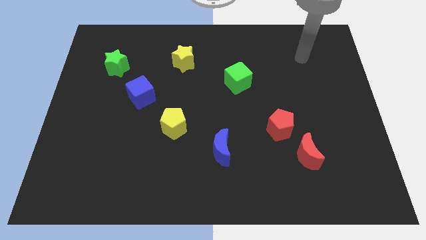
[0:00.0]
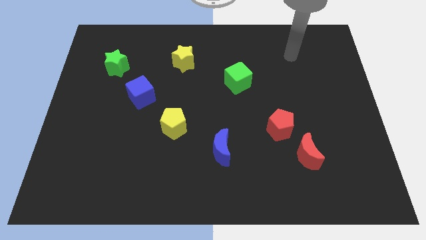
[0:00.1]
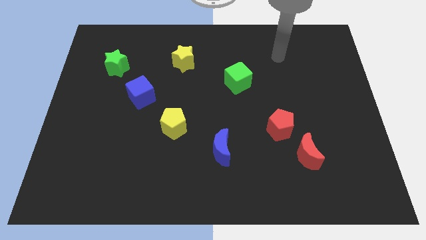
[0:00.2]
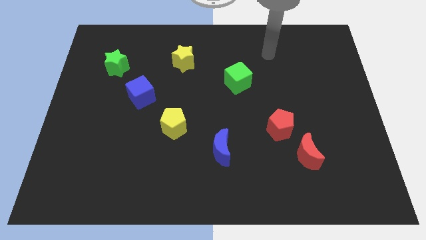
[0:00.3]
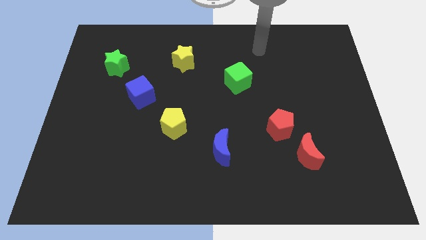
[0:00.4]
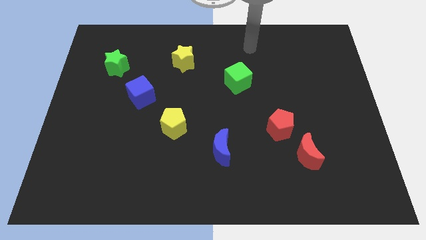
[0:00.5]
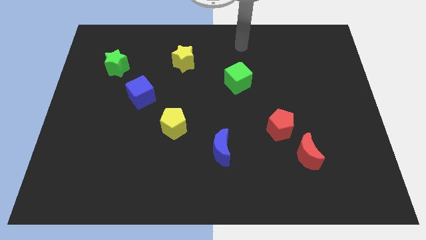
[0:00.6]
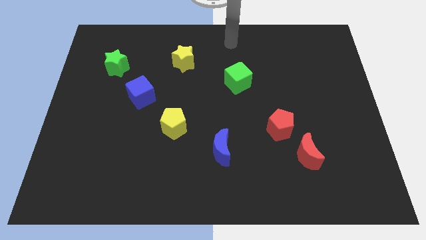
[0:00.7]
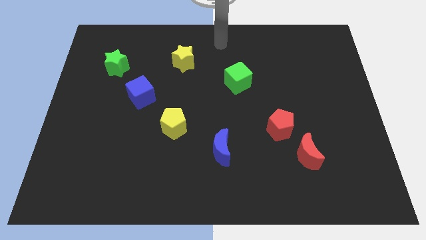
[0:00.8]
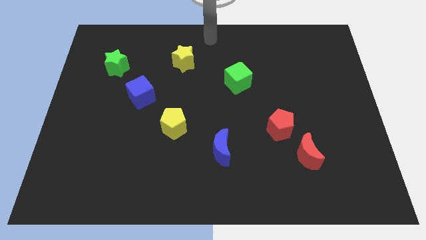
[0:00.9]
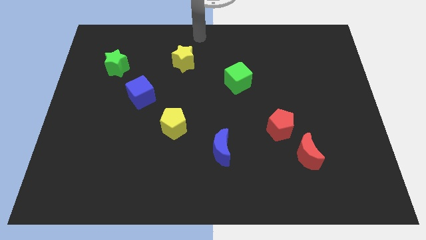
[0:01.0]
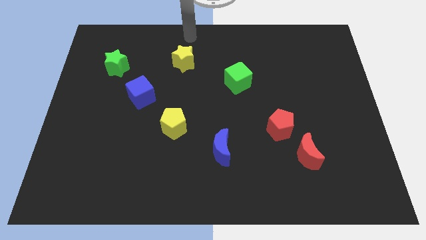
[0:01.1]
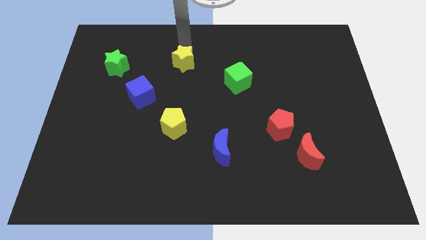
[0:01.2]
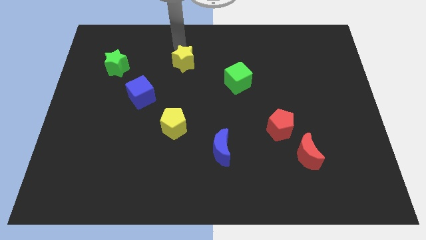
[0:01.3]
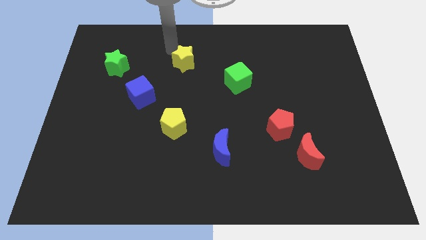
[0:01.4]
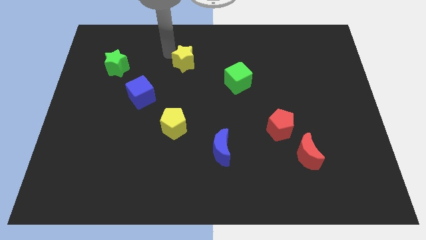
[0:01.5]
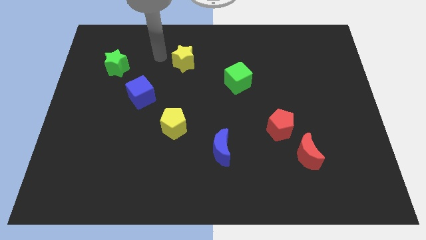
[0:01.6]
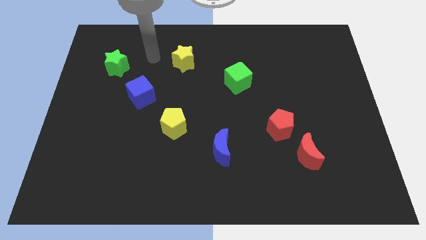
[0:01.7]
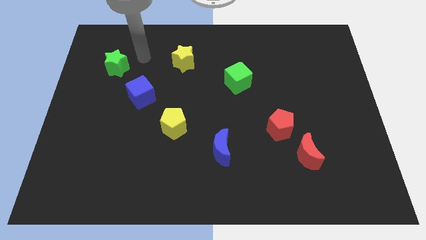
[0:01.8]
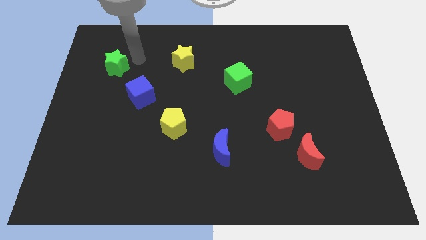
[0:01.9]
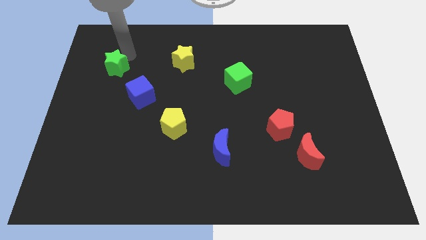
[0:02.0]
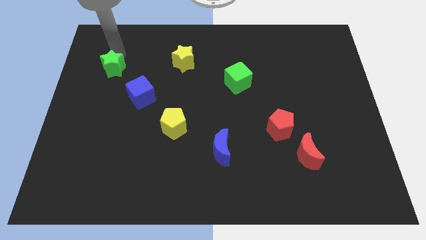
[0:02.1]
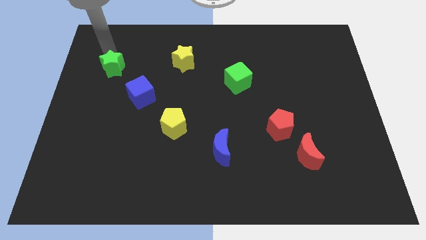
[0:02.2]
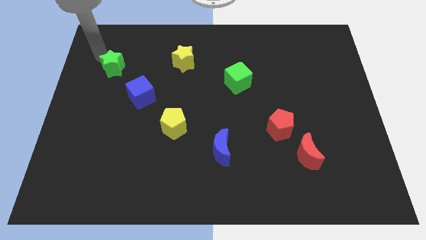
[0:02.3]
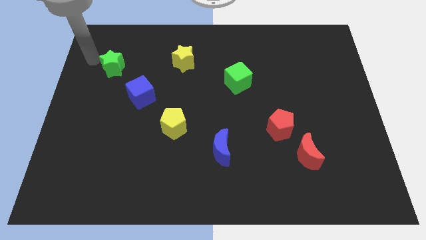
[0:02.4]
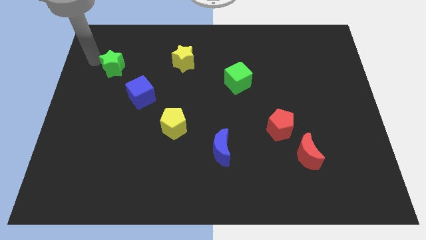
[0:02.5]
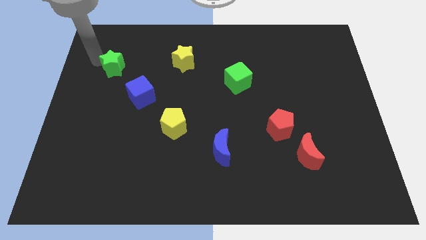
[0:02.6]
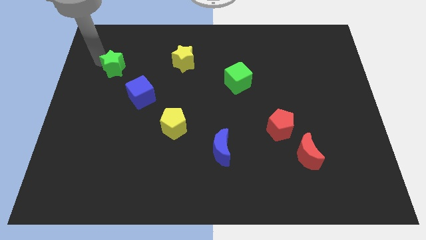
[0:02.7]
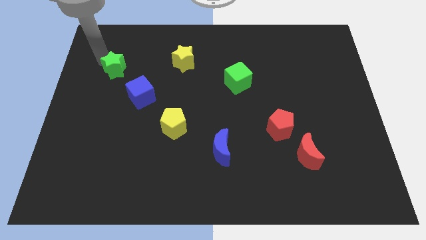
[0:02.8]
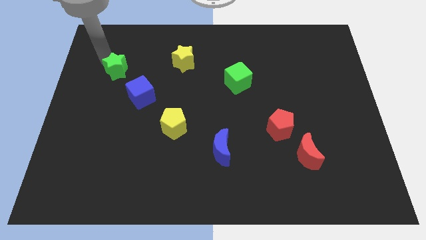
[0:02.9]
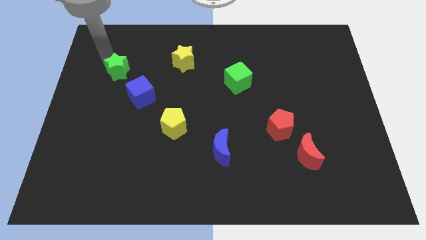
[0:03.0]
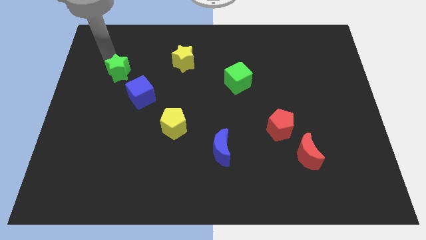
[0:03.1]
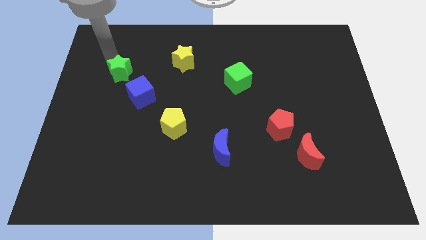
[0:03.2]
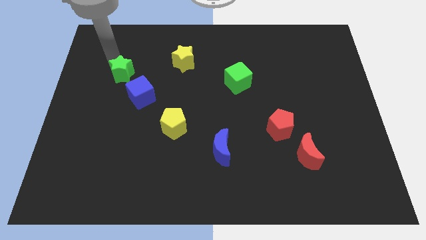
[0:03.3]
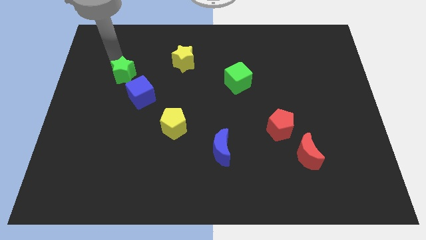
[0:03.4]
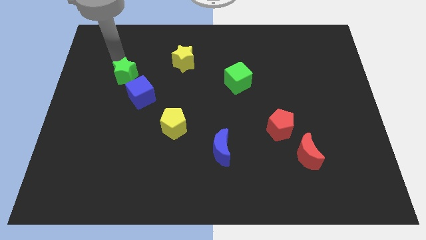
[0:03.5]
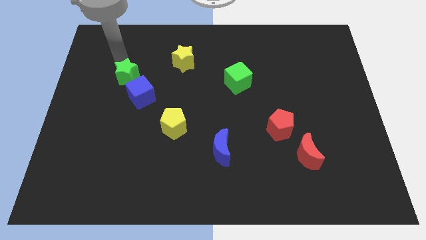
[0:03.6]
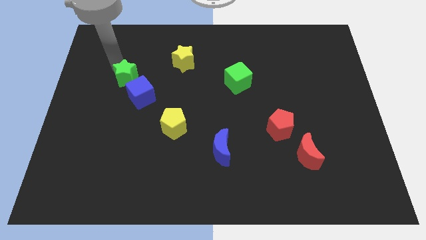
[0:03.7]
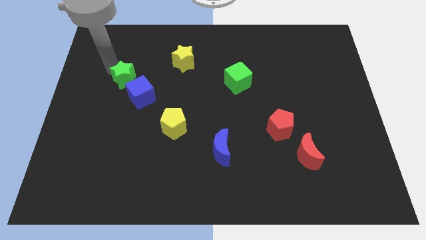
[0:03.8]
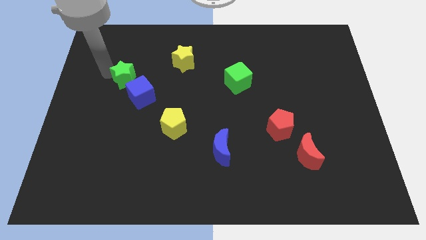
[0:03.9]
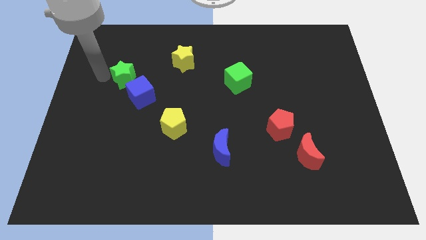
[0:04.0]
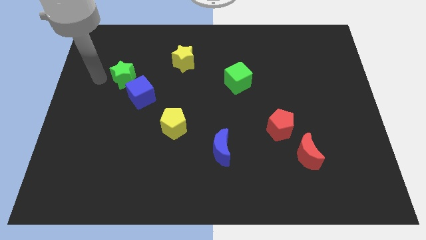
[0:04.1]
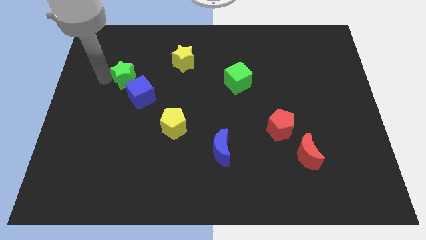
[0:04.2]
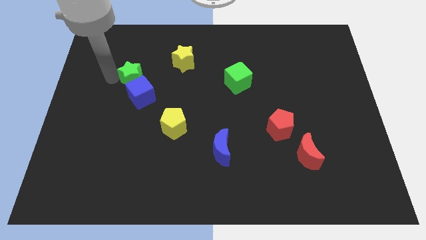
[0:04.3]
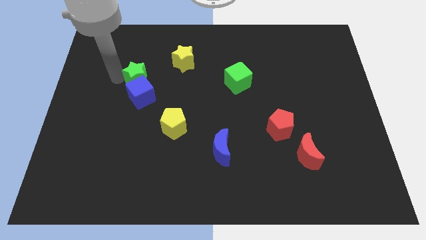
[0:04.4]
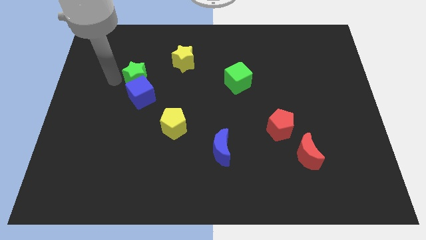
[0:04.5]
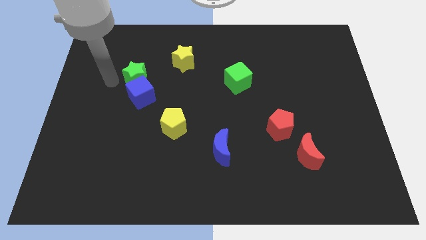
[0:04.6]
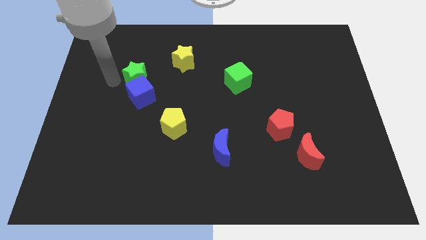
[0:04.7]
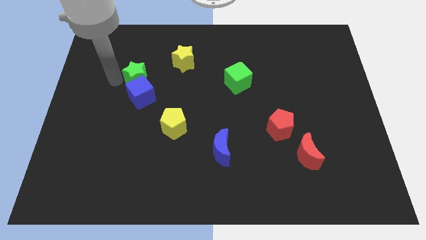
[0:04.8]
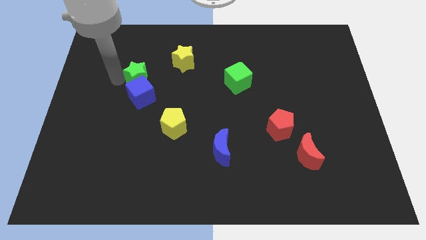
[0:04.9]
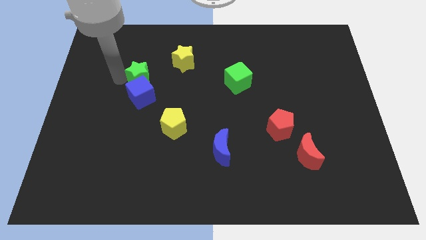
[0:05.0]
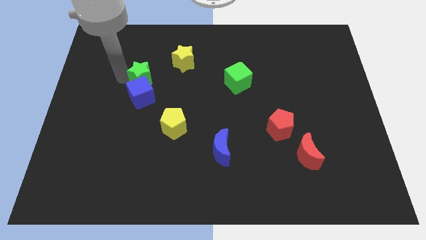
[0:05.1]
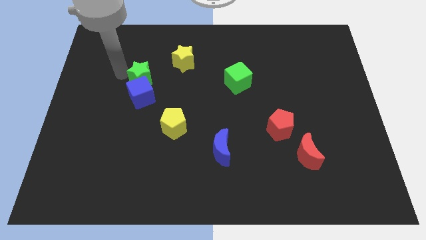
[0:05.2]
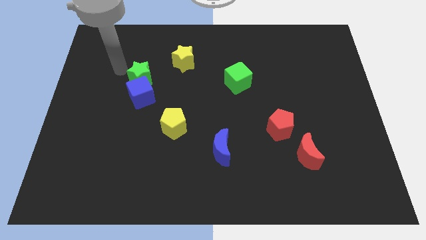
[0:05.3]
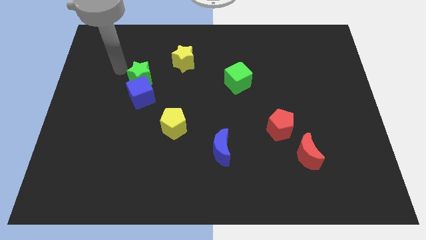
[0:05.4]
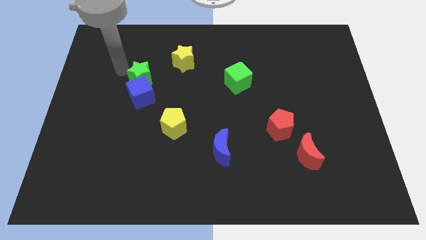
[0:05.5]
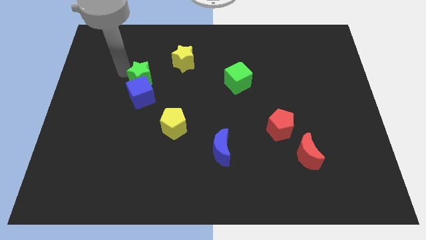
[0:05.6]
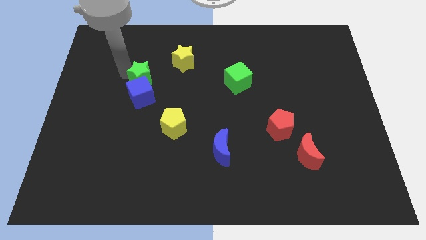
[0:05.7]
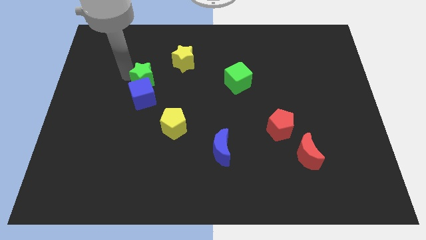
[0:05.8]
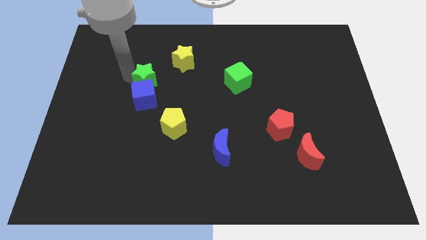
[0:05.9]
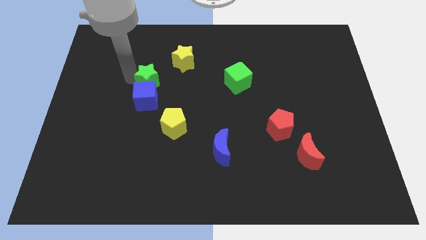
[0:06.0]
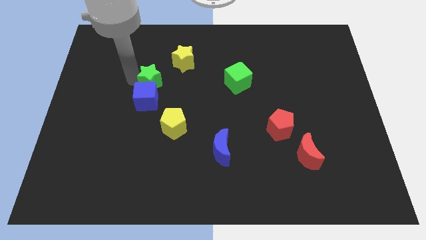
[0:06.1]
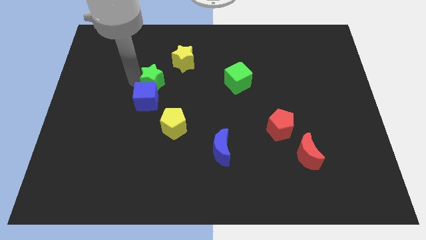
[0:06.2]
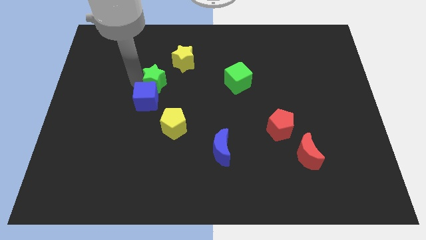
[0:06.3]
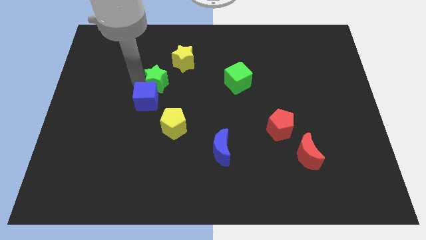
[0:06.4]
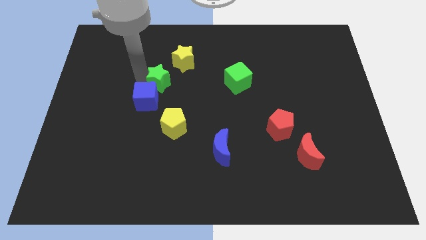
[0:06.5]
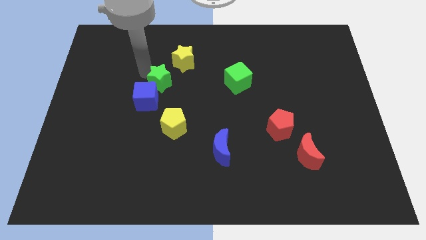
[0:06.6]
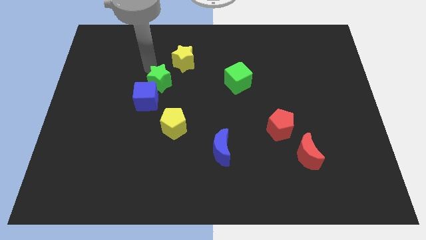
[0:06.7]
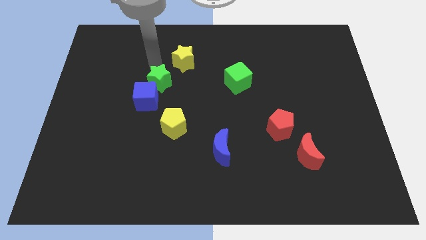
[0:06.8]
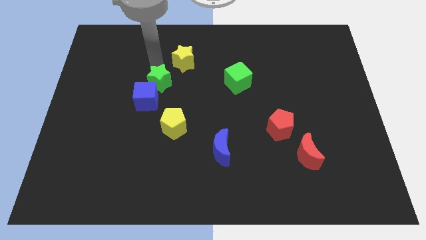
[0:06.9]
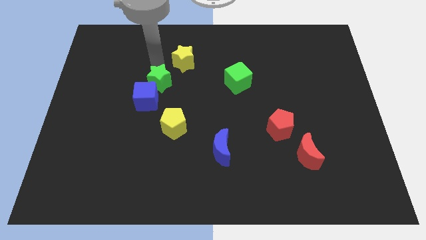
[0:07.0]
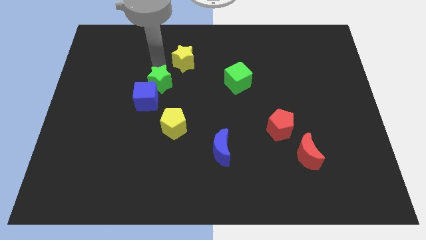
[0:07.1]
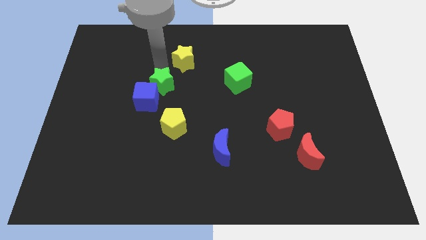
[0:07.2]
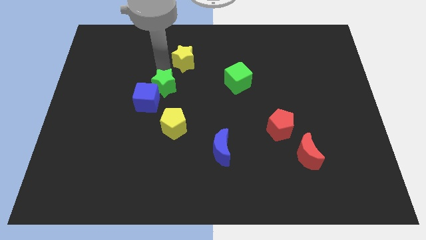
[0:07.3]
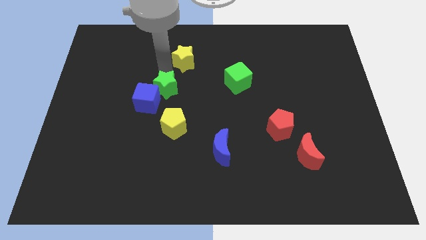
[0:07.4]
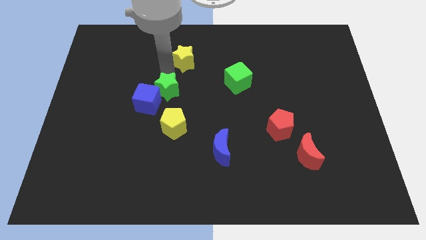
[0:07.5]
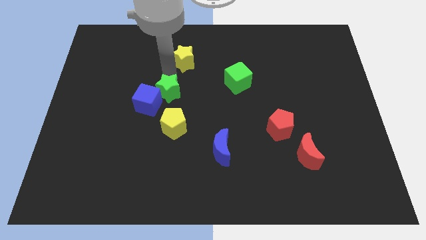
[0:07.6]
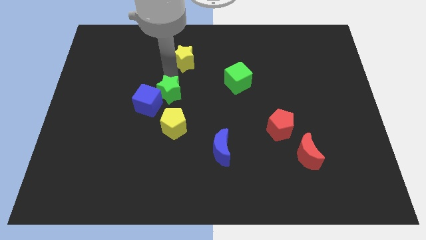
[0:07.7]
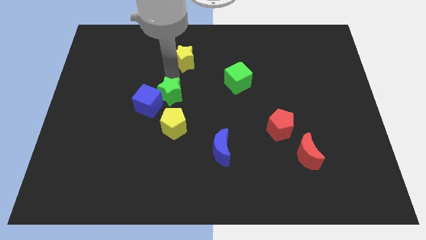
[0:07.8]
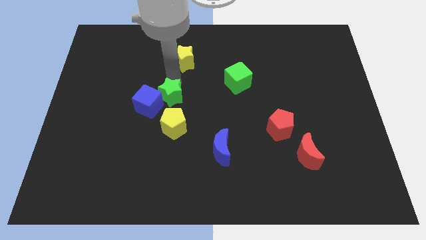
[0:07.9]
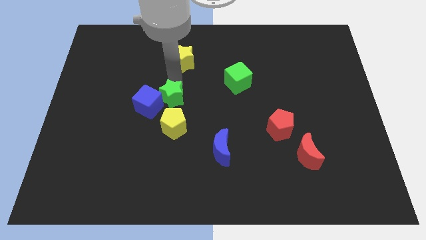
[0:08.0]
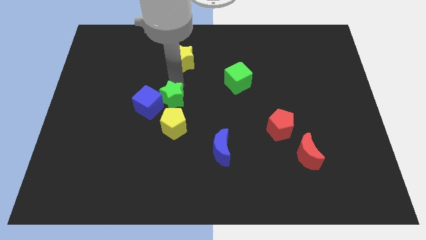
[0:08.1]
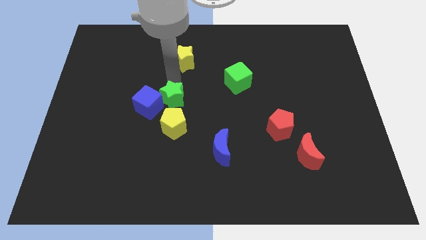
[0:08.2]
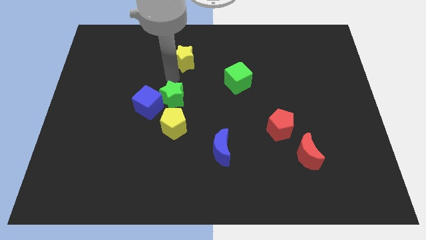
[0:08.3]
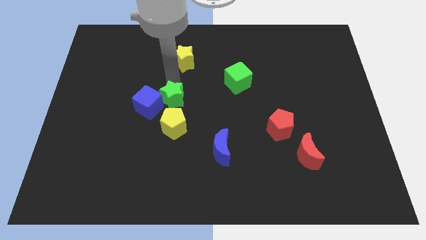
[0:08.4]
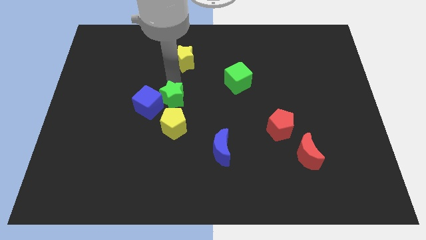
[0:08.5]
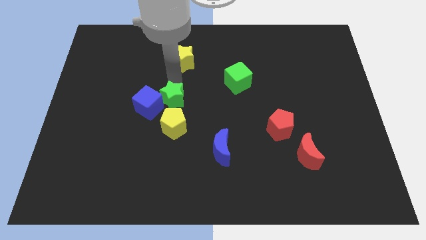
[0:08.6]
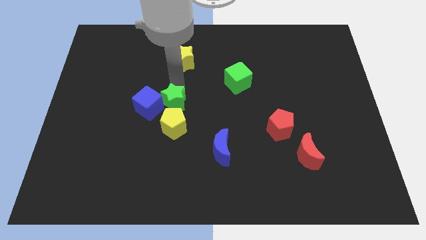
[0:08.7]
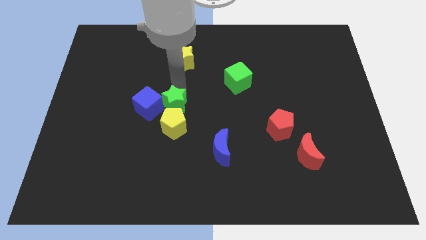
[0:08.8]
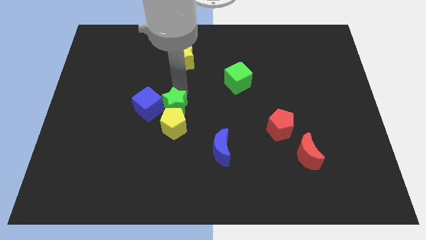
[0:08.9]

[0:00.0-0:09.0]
put the green star next to the yellow pentagon
